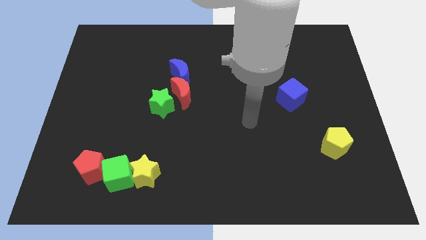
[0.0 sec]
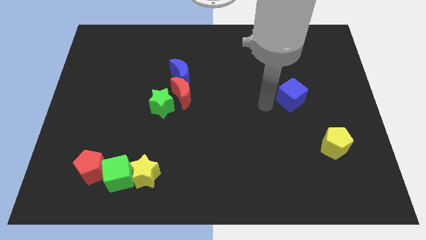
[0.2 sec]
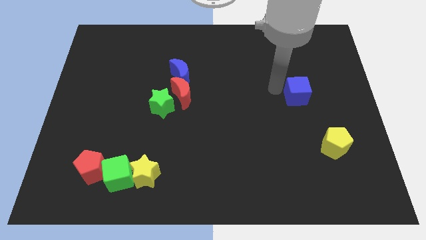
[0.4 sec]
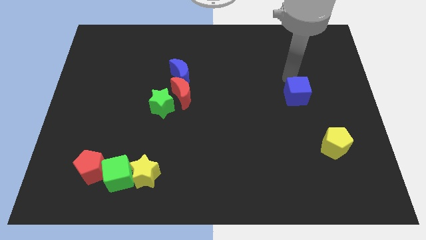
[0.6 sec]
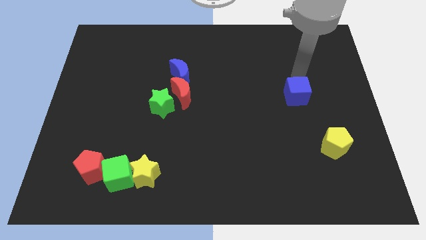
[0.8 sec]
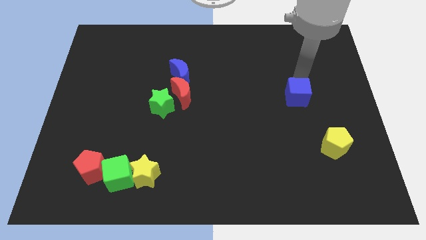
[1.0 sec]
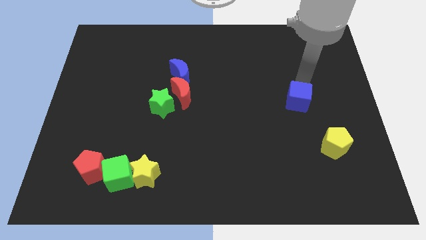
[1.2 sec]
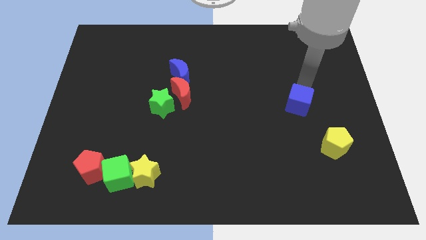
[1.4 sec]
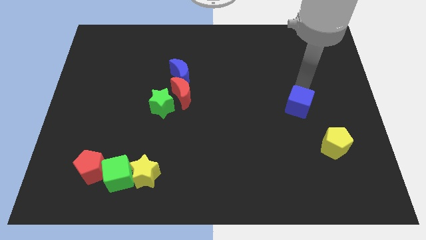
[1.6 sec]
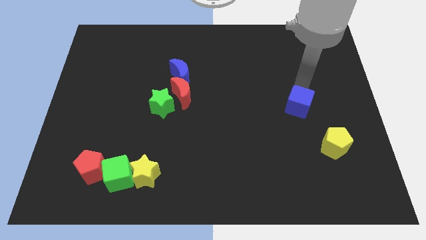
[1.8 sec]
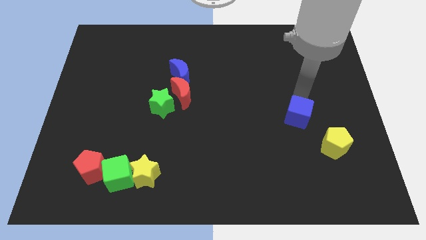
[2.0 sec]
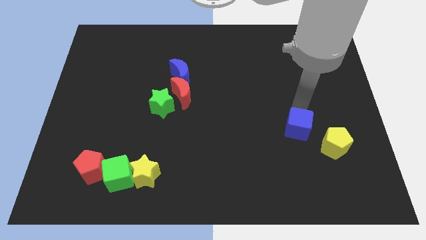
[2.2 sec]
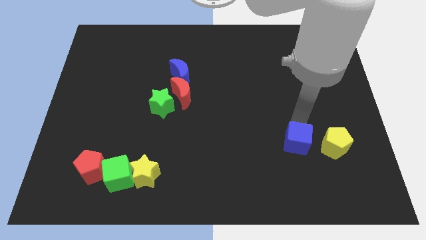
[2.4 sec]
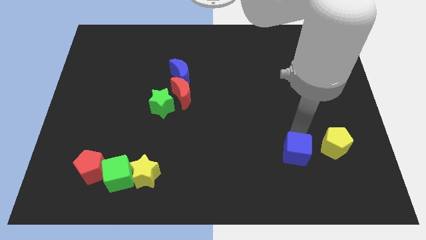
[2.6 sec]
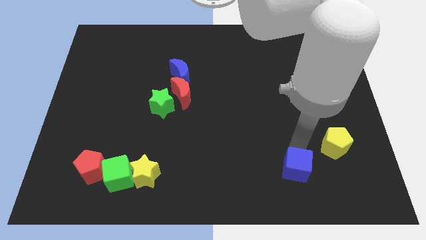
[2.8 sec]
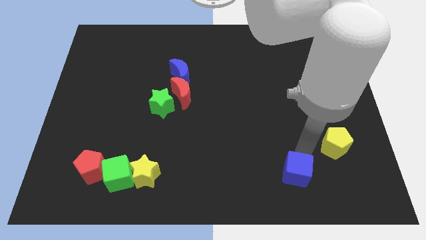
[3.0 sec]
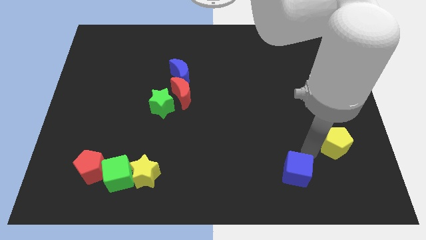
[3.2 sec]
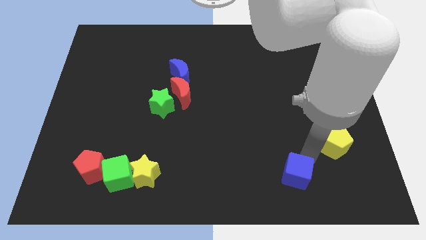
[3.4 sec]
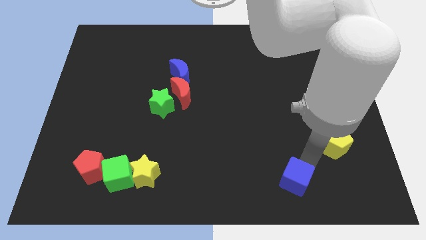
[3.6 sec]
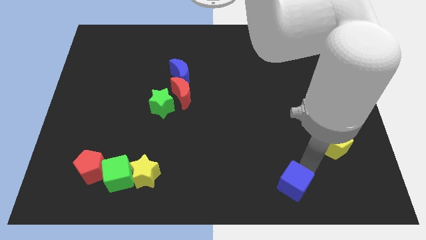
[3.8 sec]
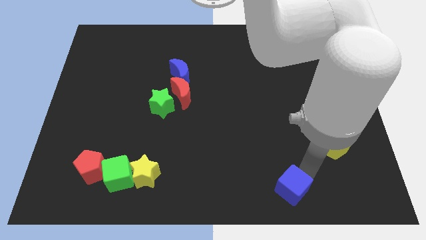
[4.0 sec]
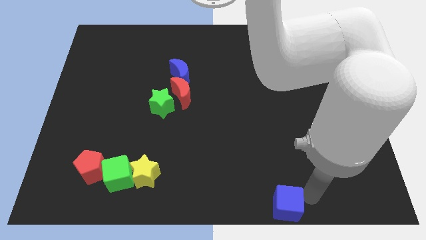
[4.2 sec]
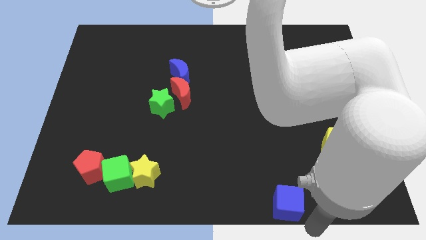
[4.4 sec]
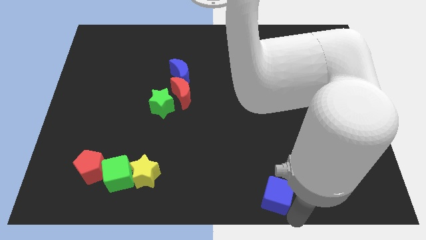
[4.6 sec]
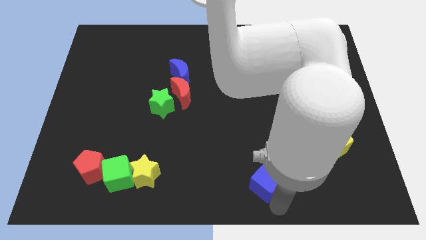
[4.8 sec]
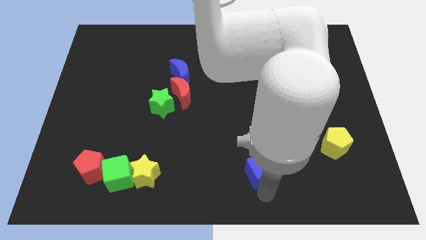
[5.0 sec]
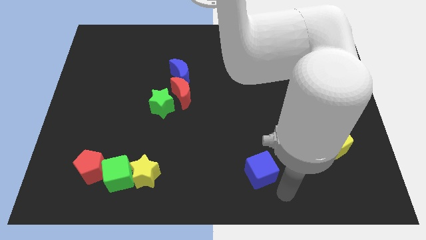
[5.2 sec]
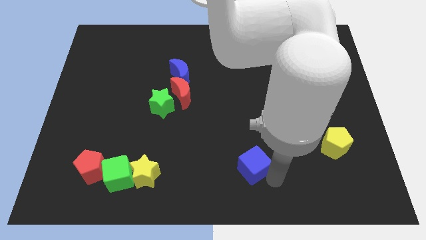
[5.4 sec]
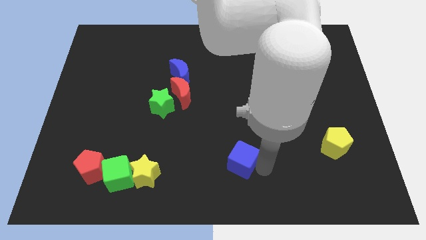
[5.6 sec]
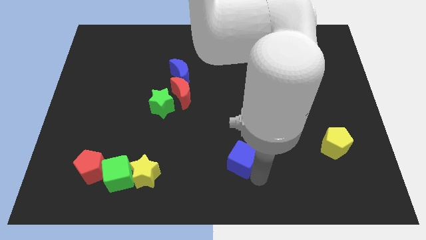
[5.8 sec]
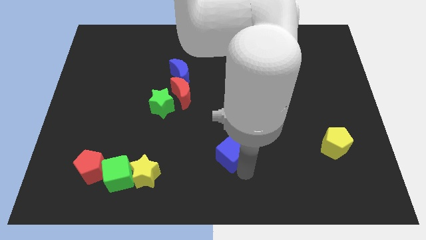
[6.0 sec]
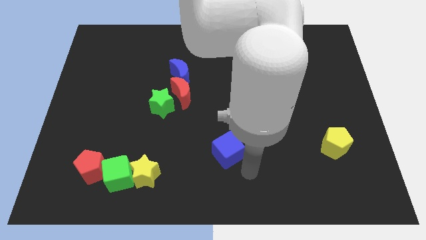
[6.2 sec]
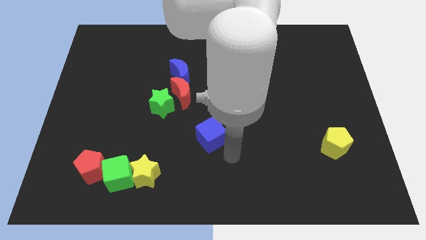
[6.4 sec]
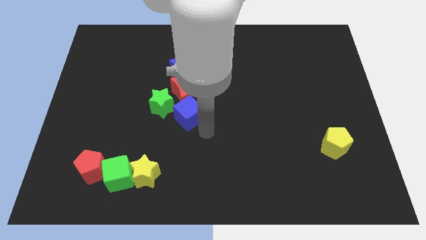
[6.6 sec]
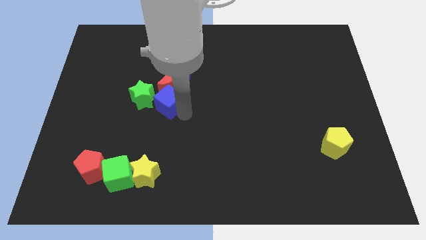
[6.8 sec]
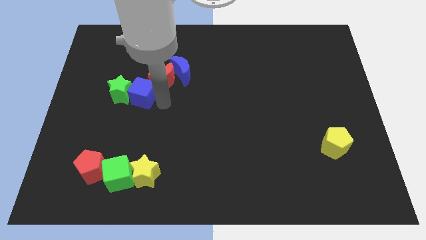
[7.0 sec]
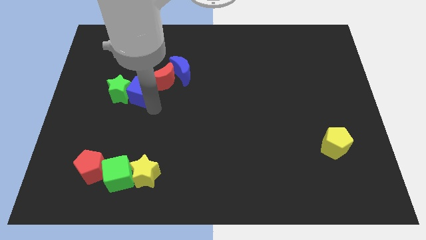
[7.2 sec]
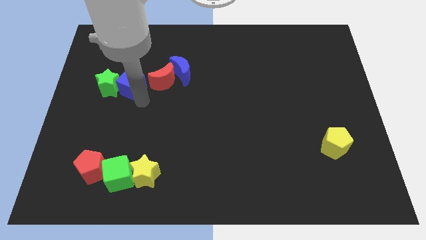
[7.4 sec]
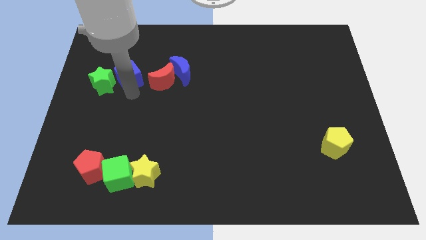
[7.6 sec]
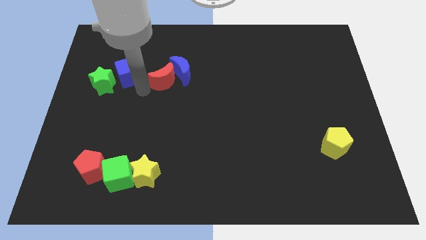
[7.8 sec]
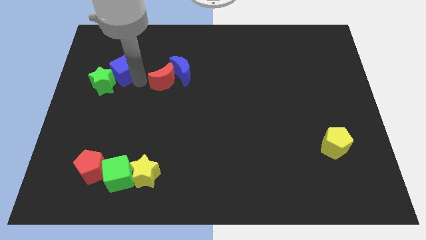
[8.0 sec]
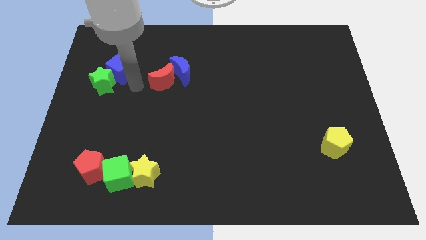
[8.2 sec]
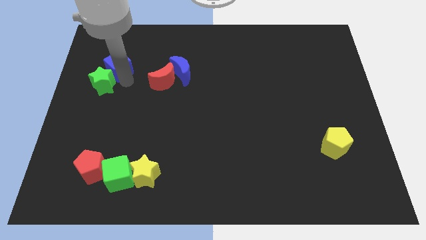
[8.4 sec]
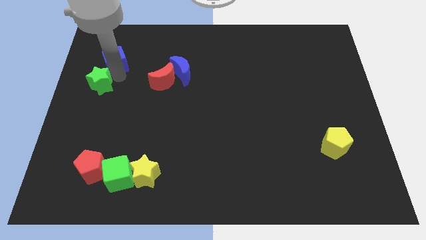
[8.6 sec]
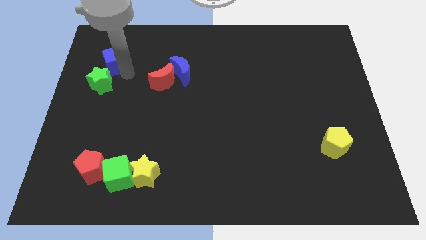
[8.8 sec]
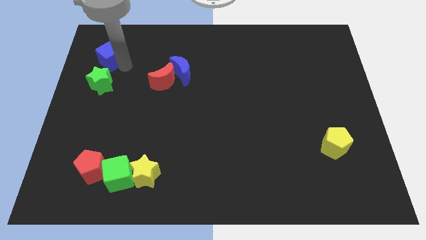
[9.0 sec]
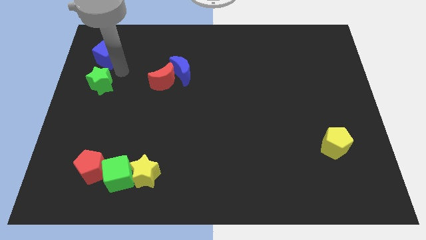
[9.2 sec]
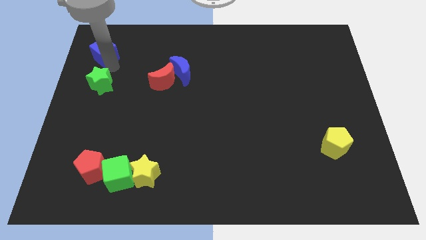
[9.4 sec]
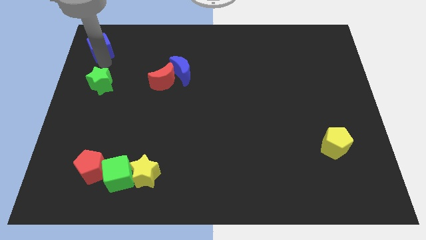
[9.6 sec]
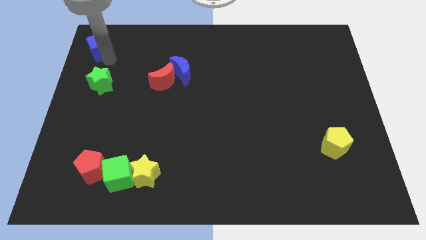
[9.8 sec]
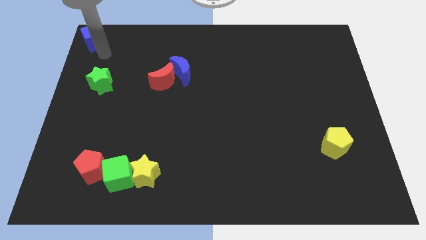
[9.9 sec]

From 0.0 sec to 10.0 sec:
put the blue cube to the top left of the board

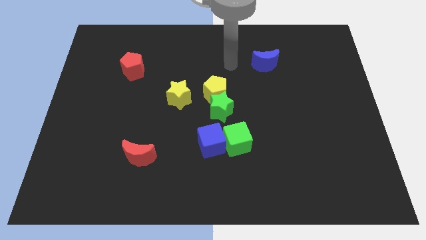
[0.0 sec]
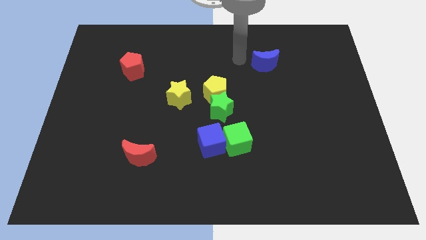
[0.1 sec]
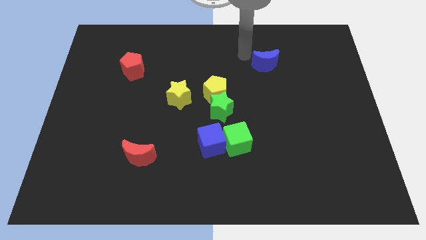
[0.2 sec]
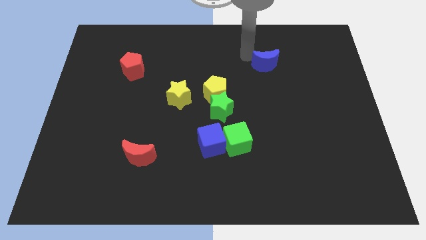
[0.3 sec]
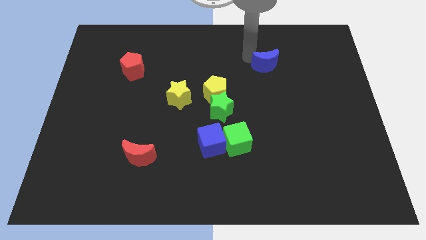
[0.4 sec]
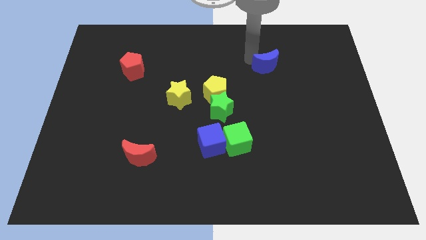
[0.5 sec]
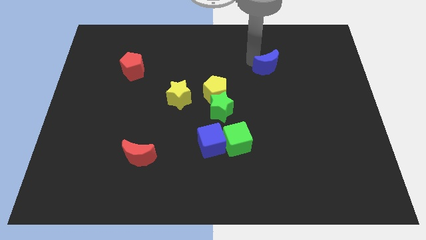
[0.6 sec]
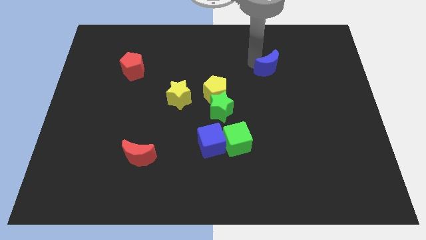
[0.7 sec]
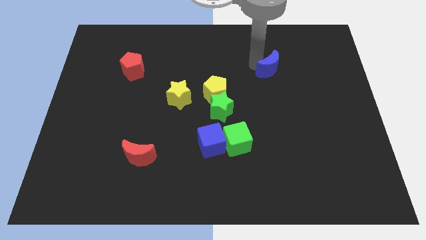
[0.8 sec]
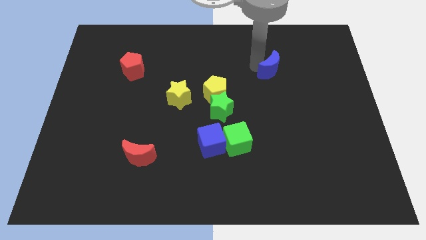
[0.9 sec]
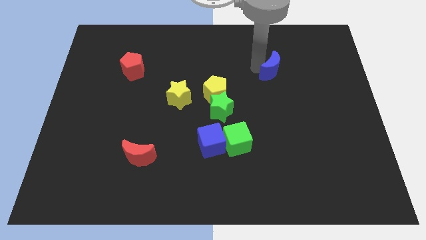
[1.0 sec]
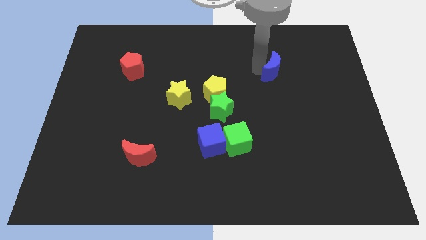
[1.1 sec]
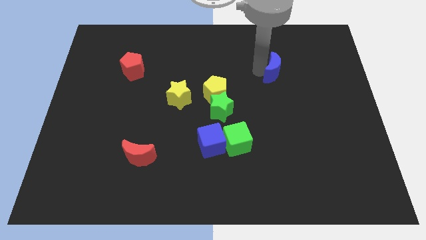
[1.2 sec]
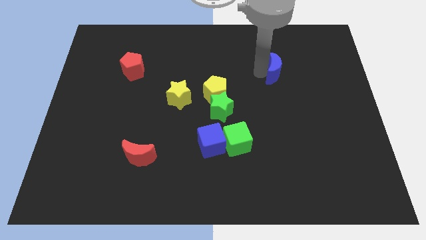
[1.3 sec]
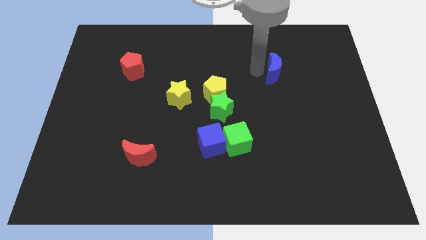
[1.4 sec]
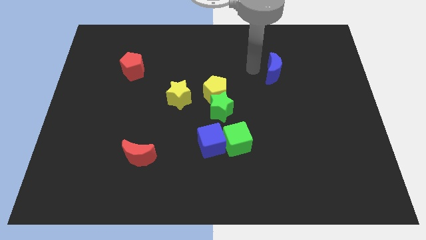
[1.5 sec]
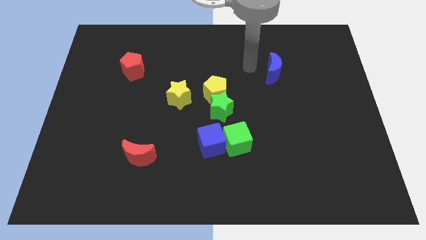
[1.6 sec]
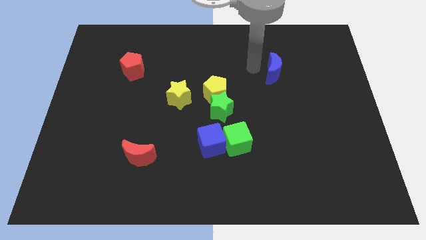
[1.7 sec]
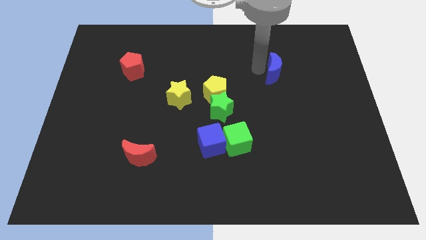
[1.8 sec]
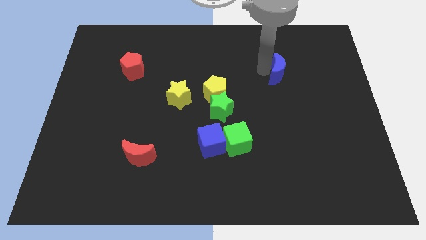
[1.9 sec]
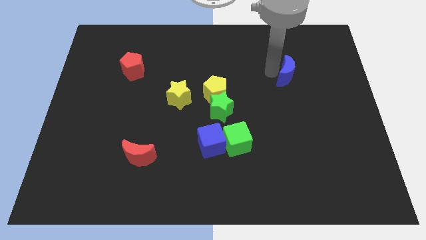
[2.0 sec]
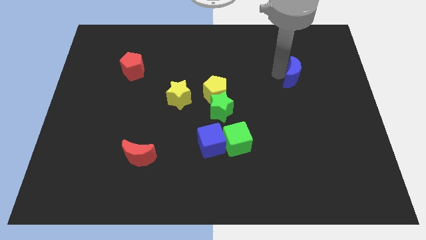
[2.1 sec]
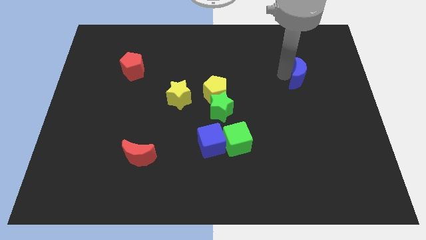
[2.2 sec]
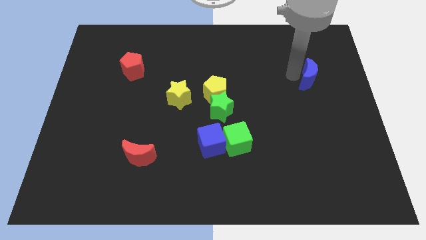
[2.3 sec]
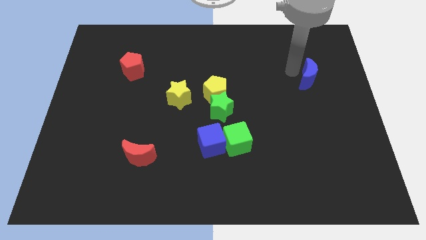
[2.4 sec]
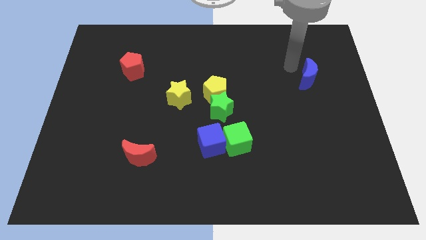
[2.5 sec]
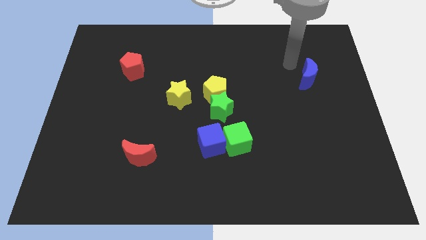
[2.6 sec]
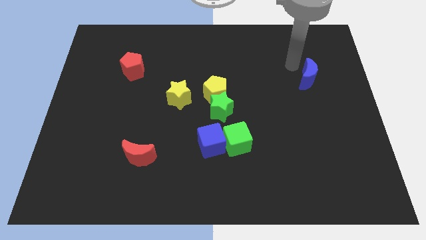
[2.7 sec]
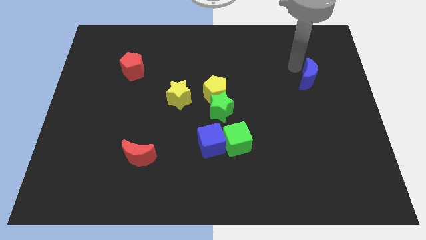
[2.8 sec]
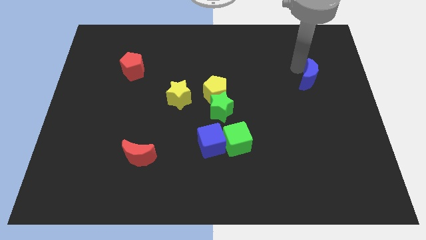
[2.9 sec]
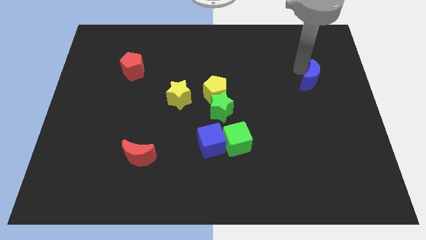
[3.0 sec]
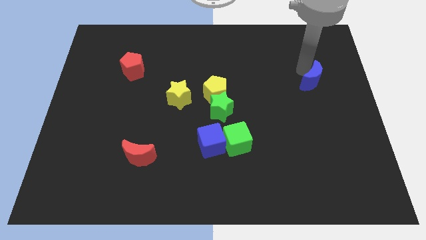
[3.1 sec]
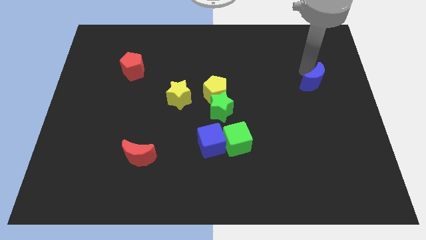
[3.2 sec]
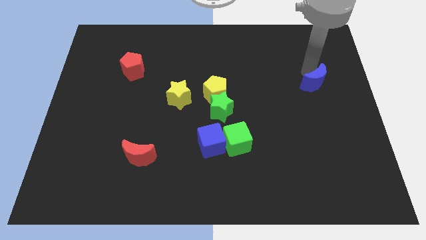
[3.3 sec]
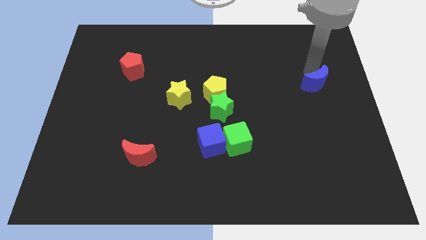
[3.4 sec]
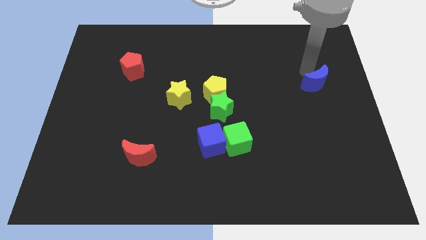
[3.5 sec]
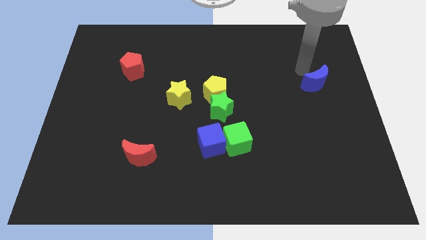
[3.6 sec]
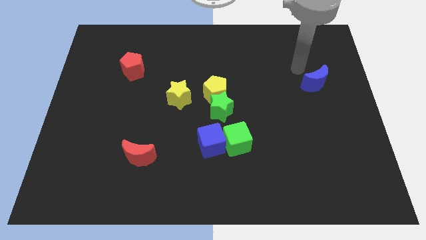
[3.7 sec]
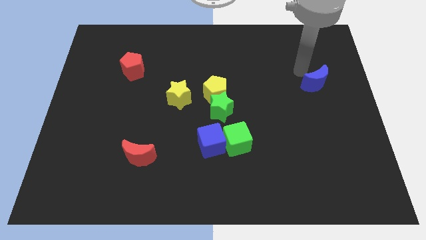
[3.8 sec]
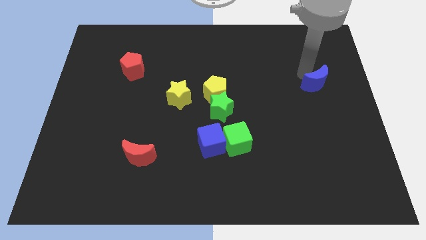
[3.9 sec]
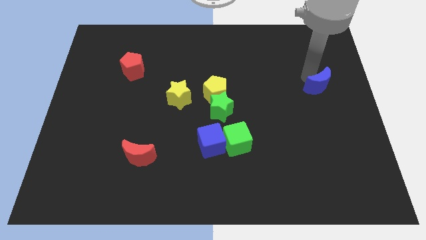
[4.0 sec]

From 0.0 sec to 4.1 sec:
push the blue moon to the right side of the board
